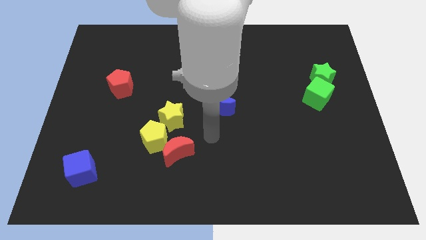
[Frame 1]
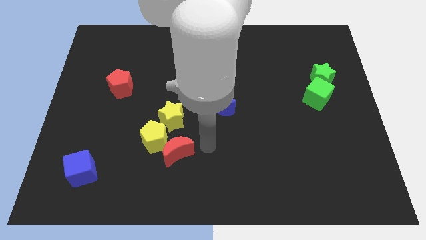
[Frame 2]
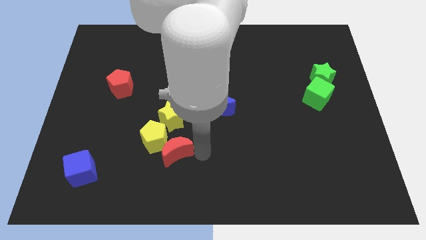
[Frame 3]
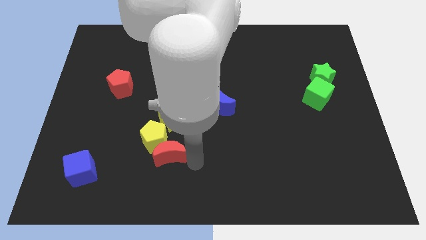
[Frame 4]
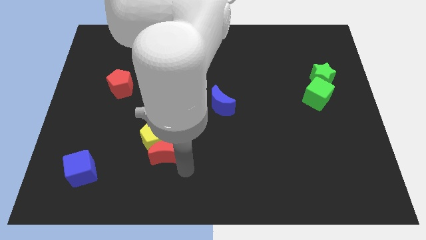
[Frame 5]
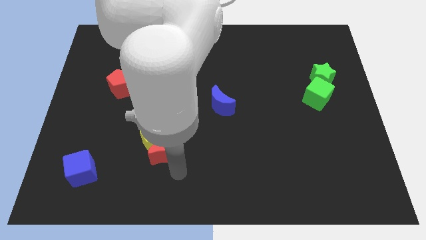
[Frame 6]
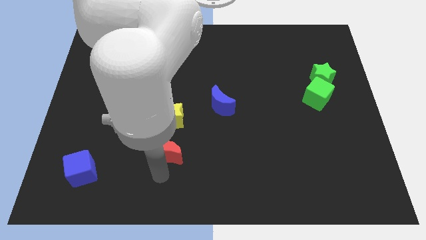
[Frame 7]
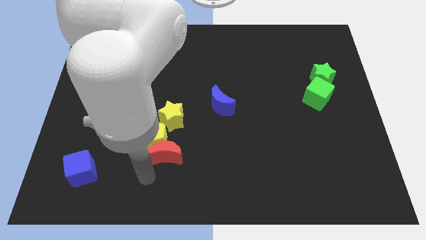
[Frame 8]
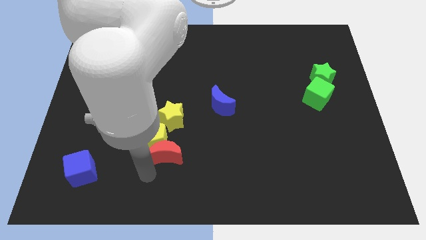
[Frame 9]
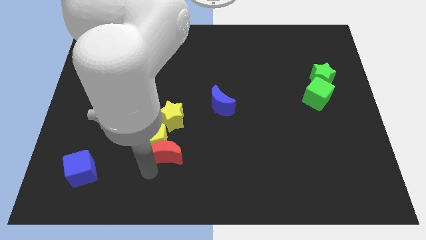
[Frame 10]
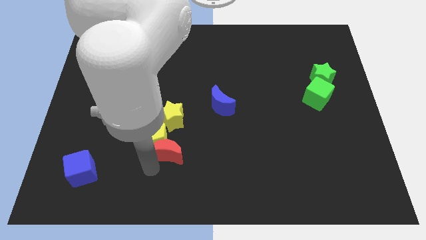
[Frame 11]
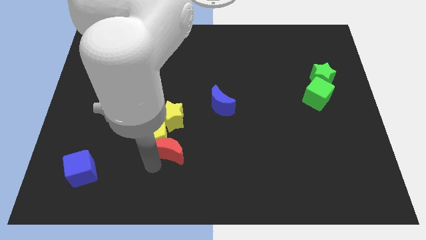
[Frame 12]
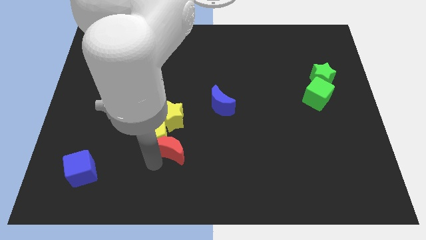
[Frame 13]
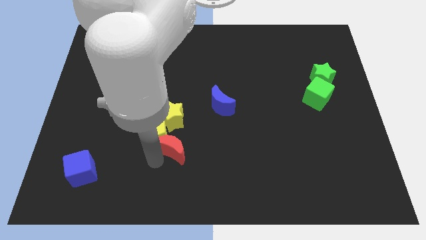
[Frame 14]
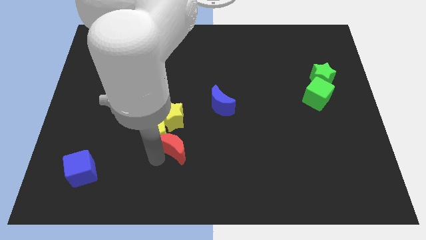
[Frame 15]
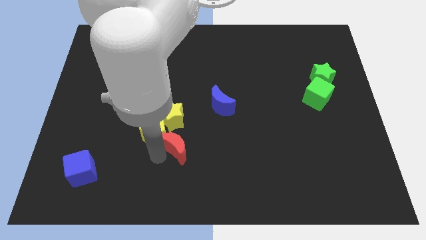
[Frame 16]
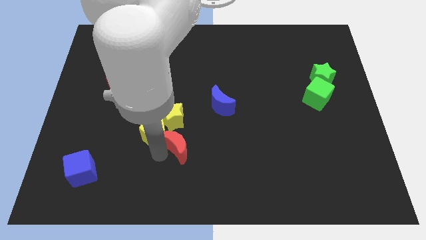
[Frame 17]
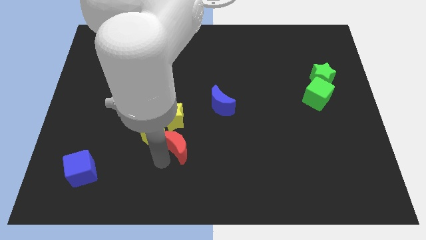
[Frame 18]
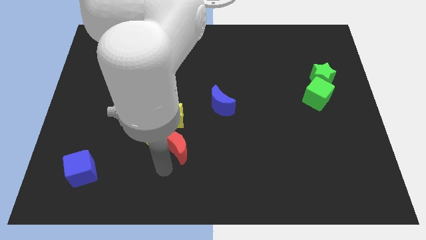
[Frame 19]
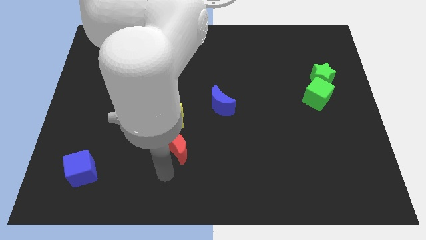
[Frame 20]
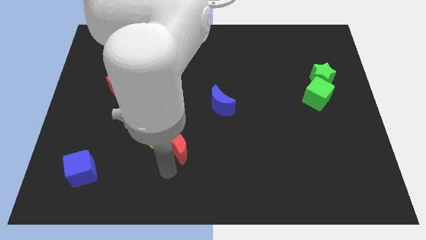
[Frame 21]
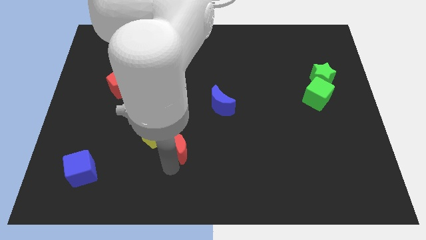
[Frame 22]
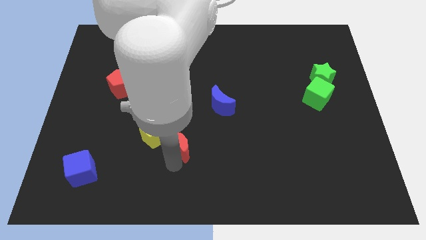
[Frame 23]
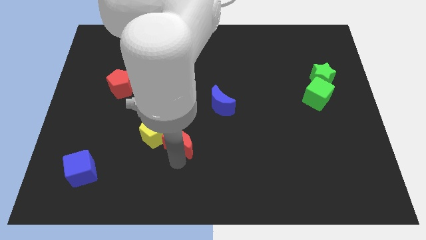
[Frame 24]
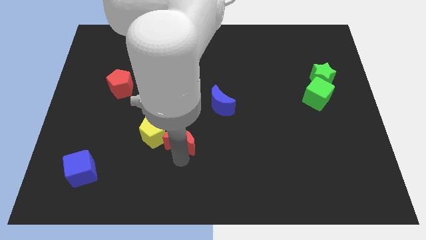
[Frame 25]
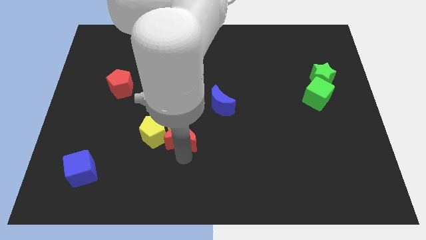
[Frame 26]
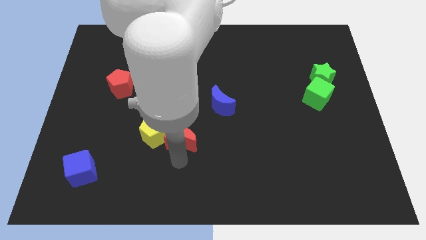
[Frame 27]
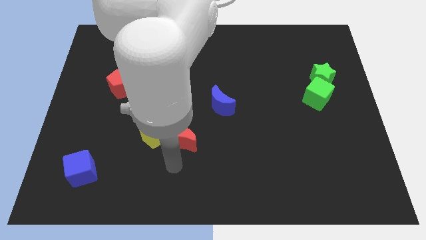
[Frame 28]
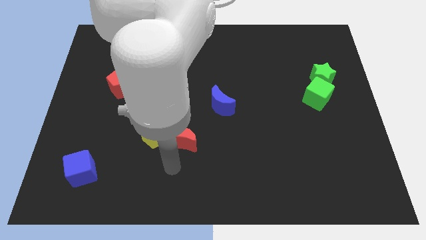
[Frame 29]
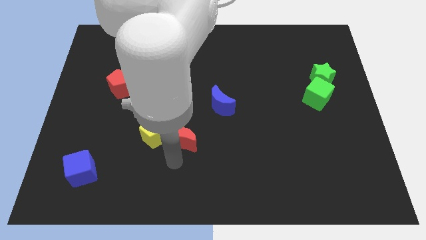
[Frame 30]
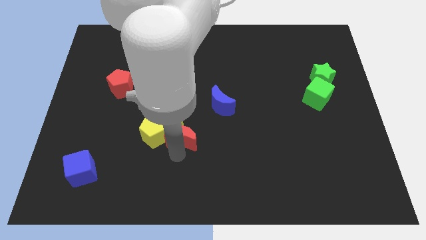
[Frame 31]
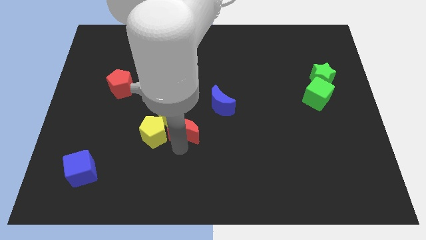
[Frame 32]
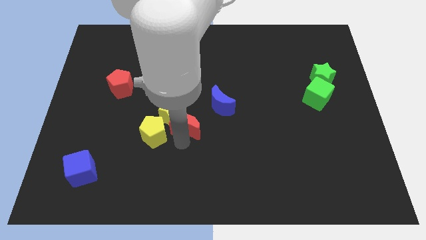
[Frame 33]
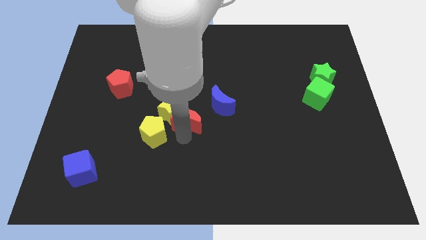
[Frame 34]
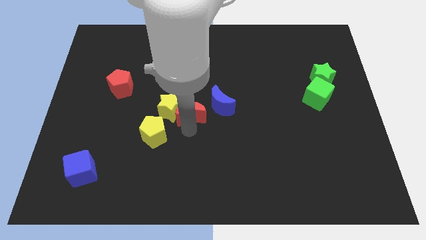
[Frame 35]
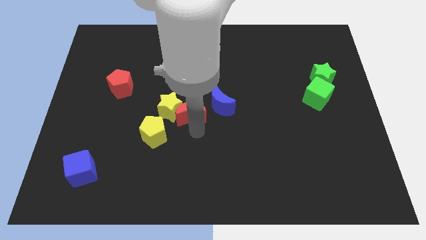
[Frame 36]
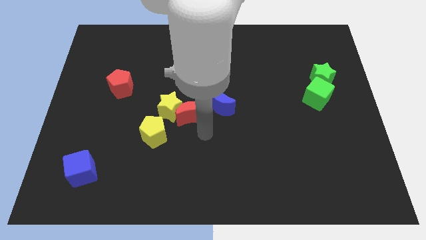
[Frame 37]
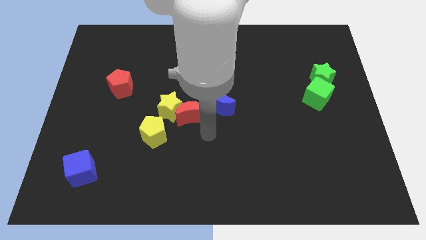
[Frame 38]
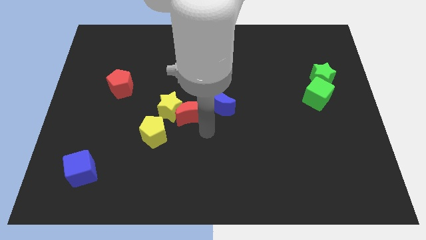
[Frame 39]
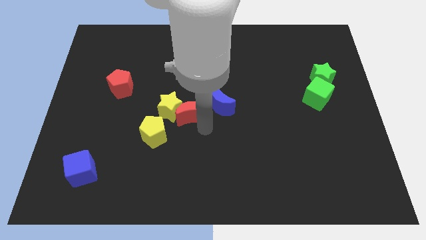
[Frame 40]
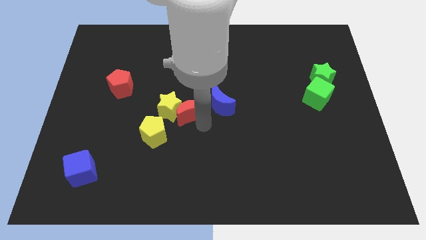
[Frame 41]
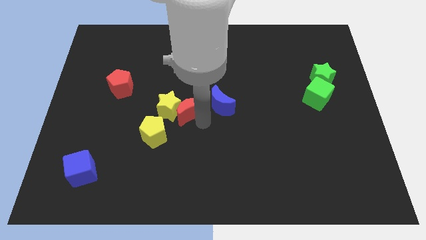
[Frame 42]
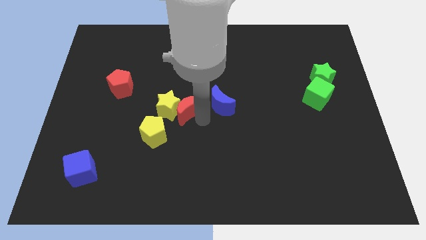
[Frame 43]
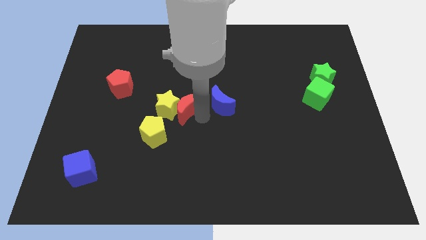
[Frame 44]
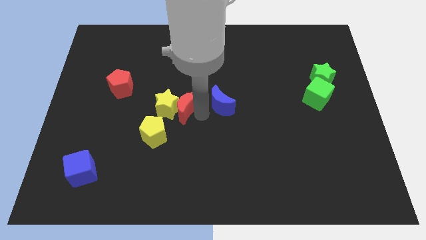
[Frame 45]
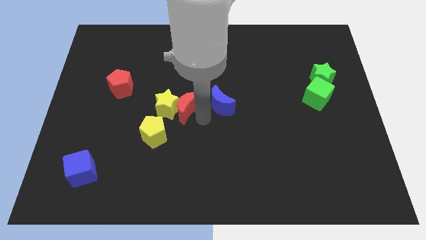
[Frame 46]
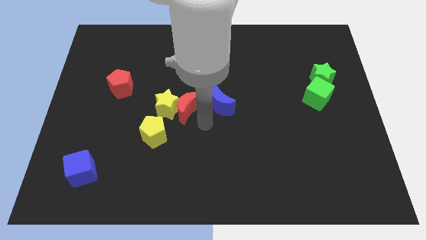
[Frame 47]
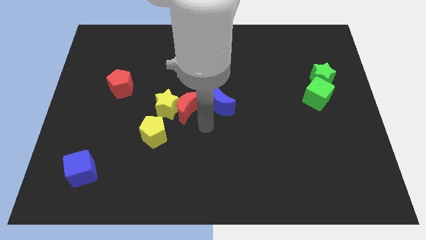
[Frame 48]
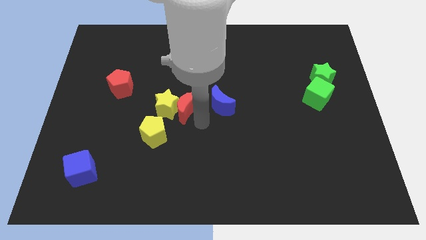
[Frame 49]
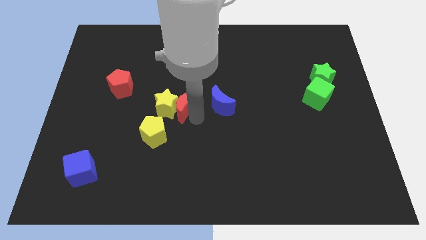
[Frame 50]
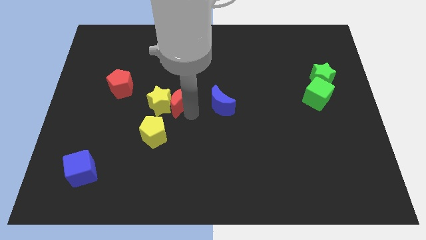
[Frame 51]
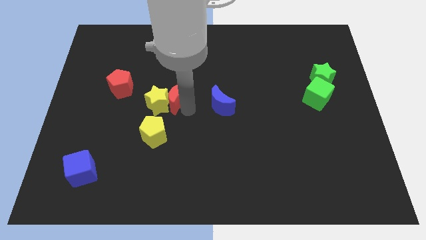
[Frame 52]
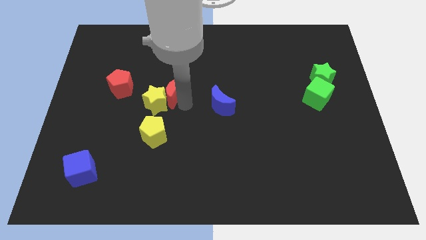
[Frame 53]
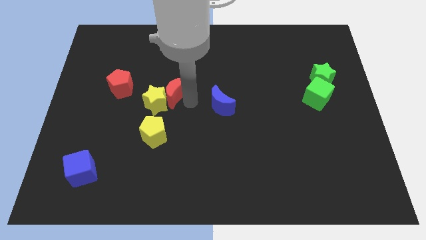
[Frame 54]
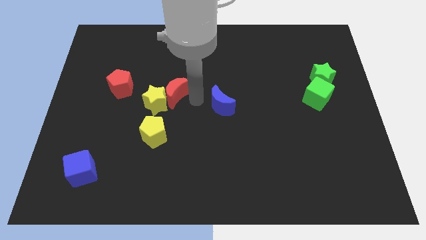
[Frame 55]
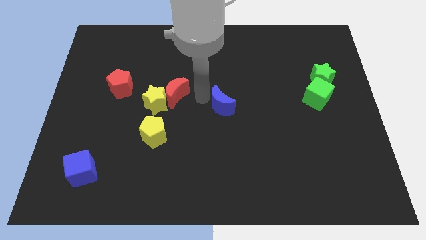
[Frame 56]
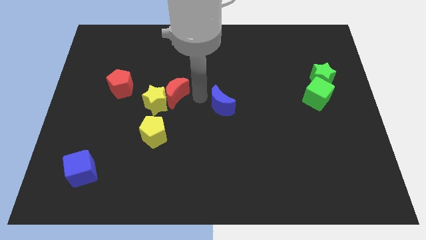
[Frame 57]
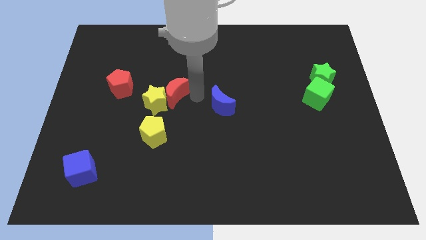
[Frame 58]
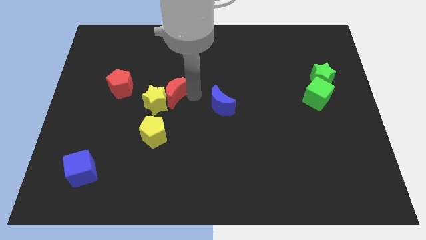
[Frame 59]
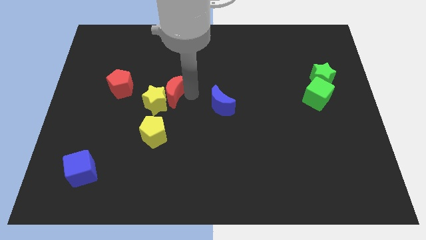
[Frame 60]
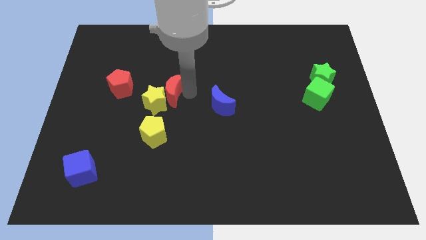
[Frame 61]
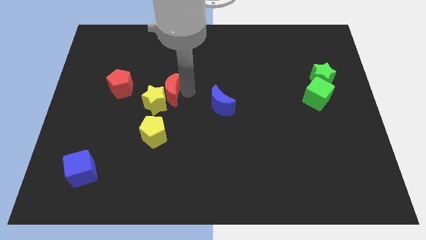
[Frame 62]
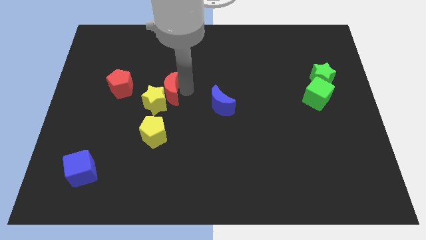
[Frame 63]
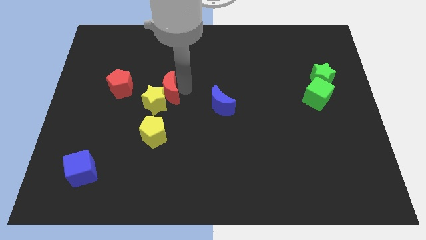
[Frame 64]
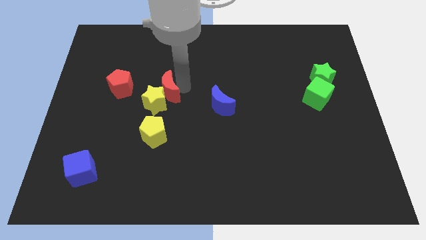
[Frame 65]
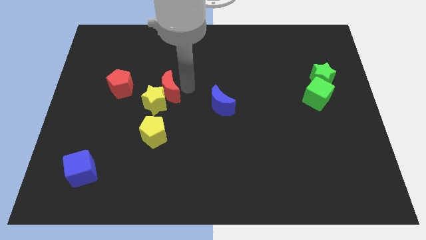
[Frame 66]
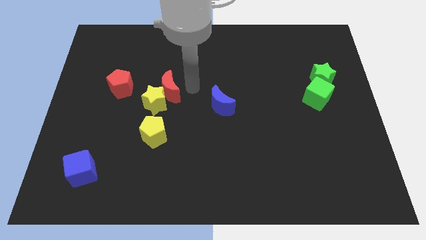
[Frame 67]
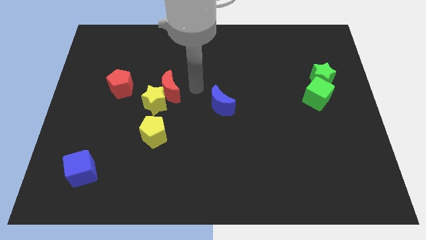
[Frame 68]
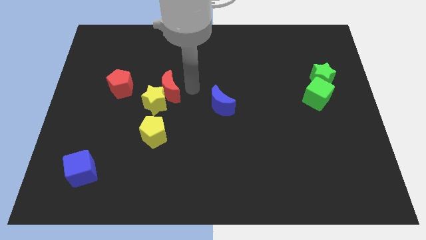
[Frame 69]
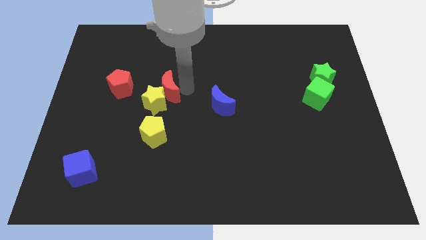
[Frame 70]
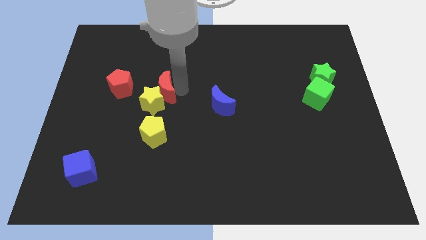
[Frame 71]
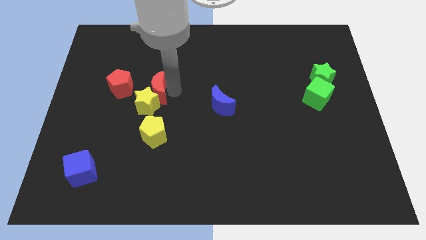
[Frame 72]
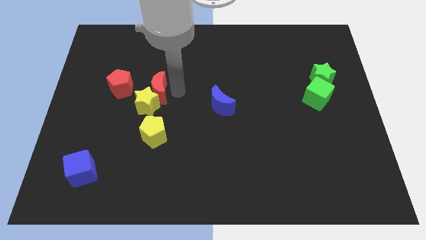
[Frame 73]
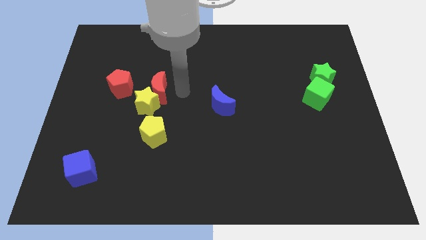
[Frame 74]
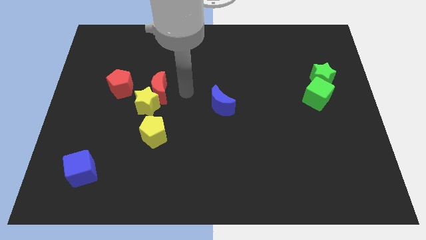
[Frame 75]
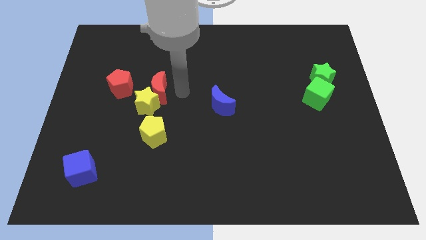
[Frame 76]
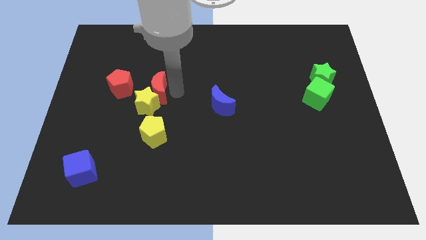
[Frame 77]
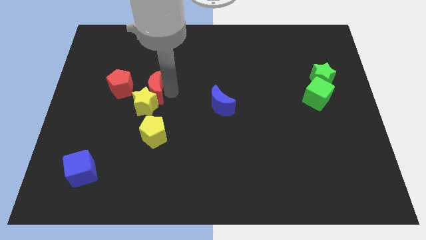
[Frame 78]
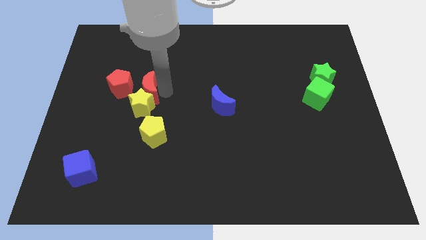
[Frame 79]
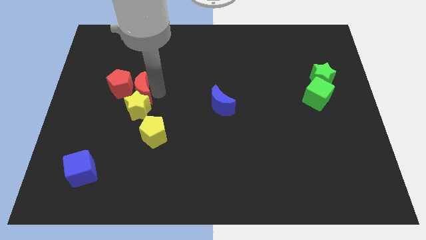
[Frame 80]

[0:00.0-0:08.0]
slide the red moon to the red pentagon
